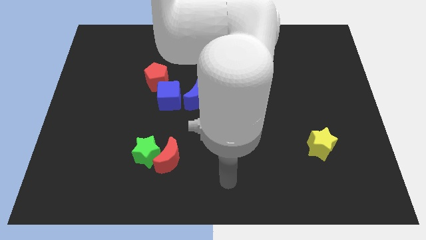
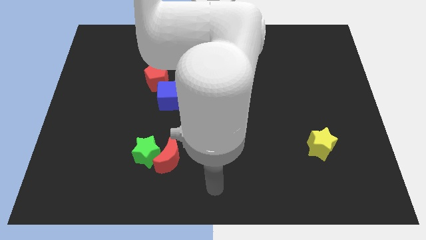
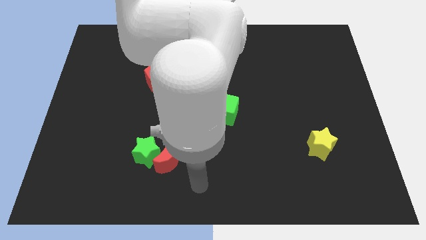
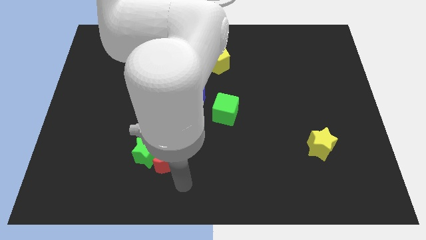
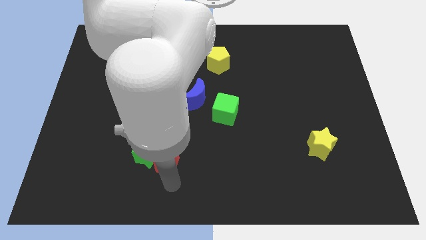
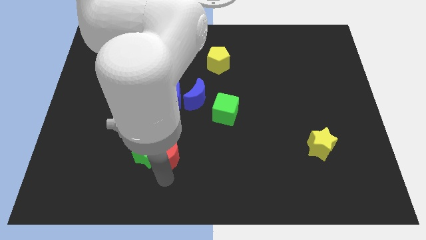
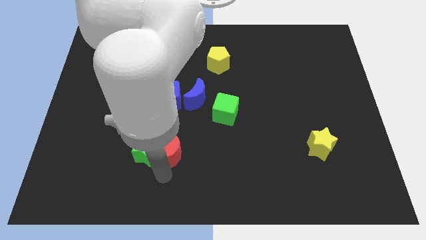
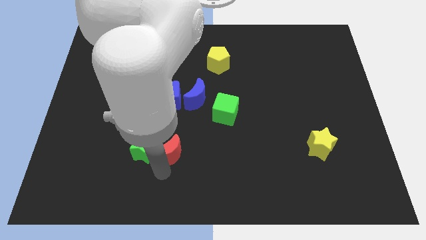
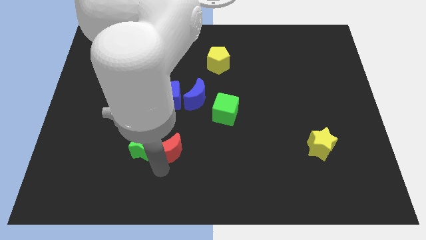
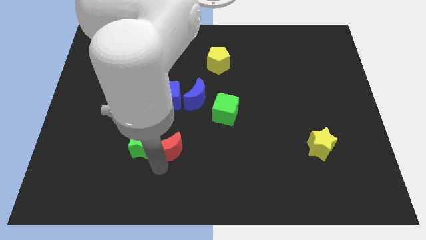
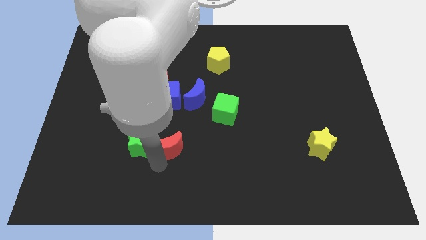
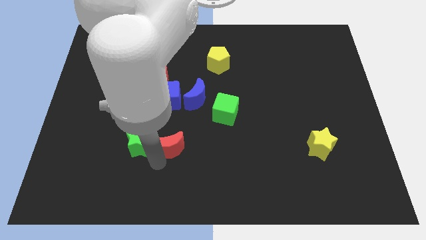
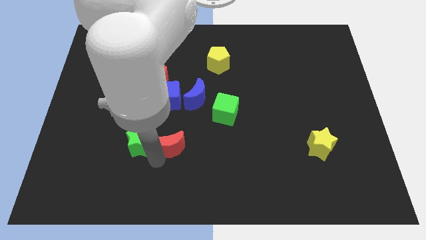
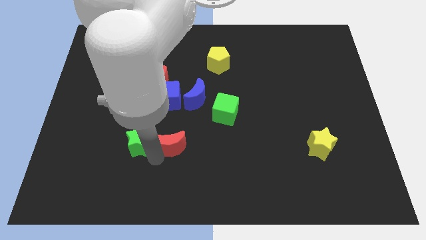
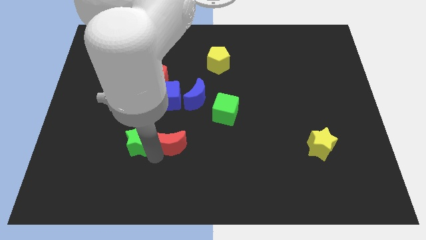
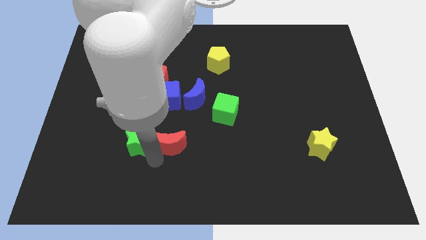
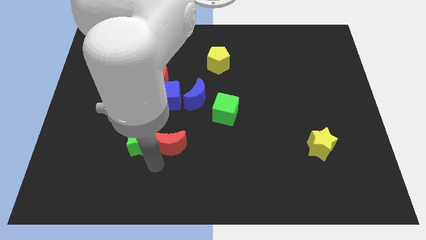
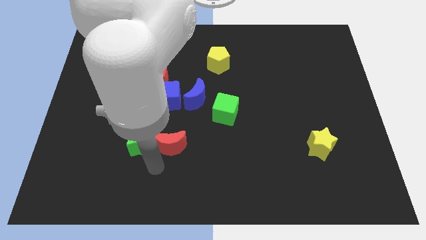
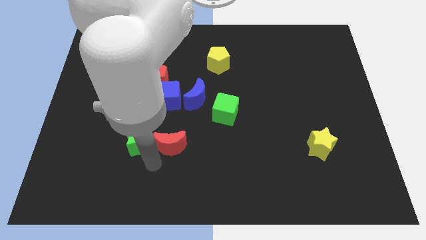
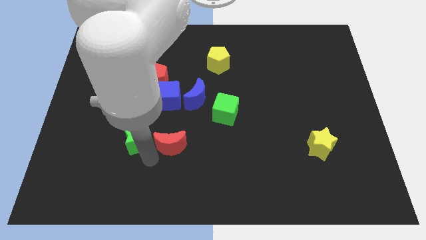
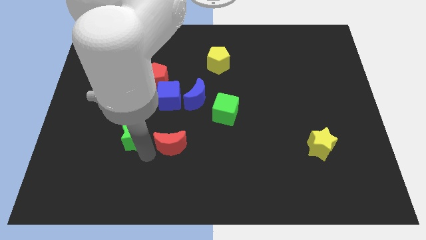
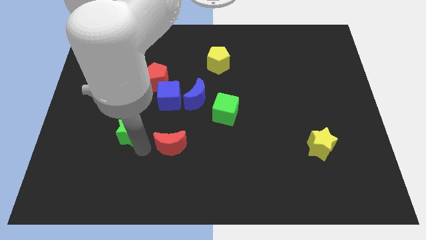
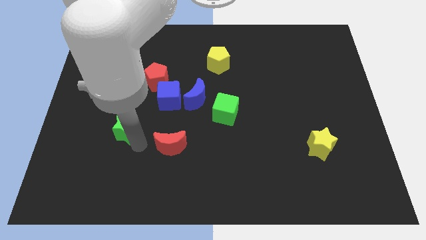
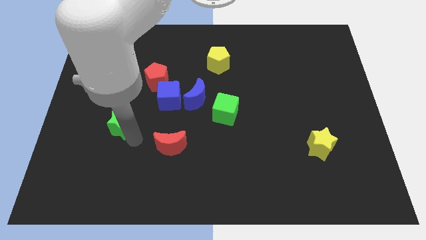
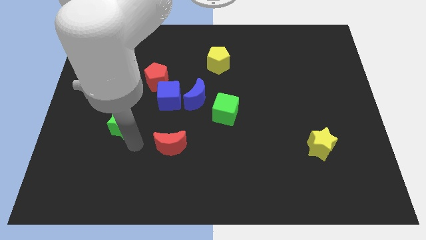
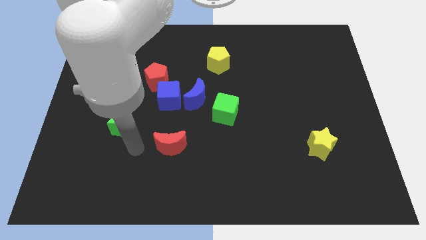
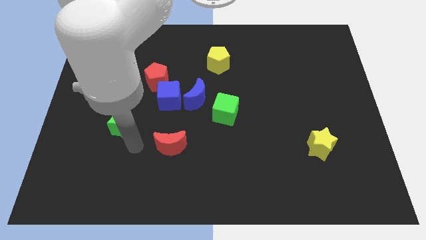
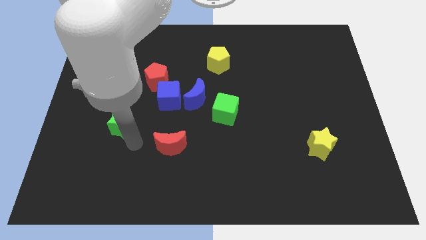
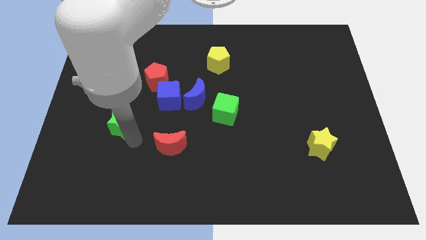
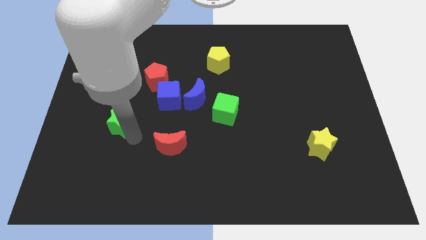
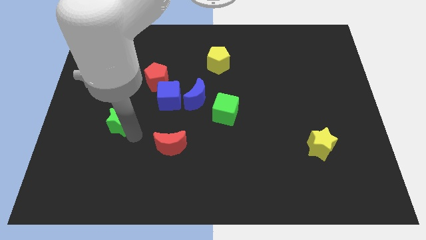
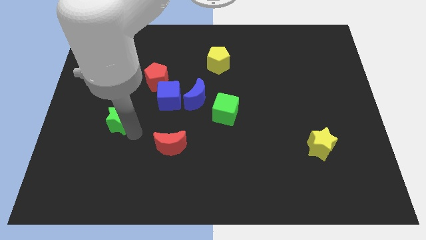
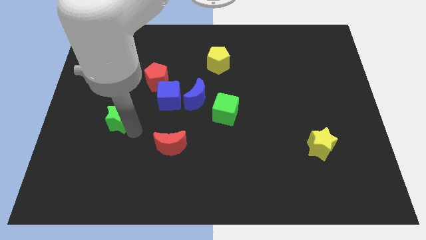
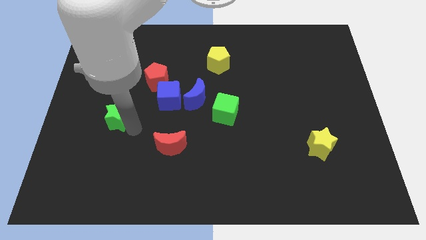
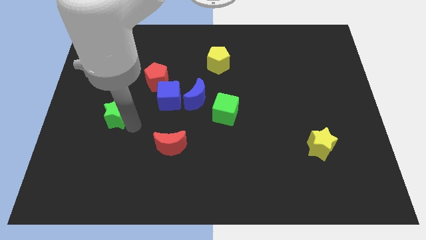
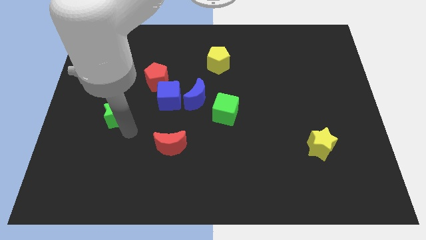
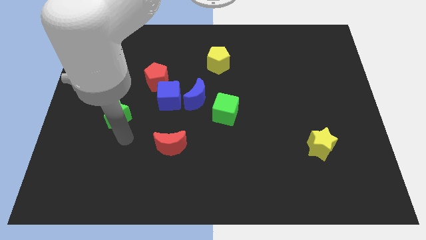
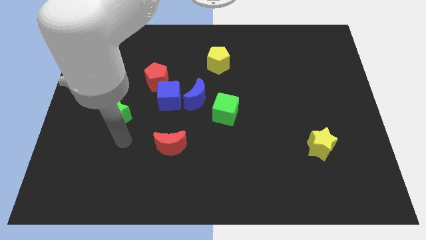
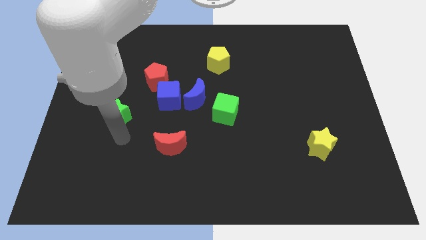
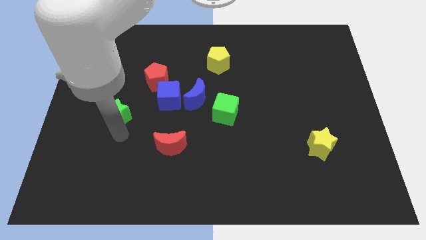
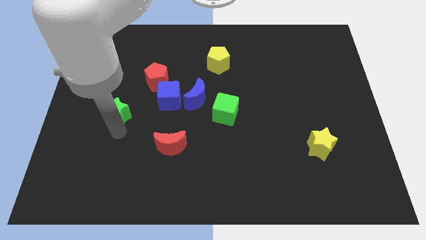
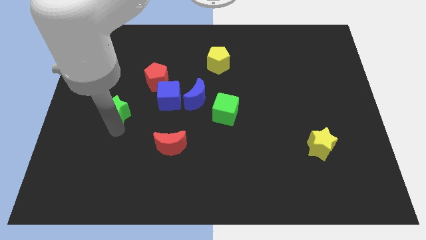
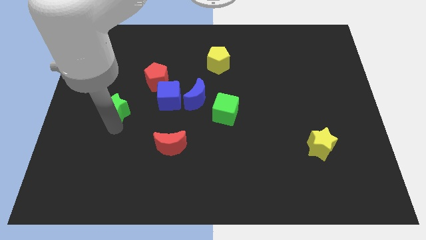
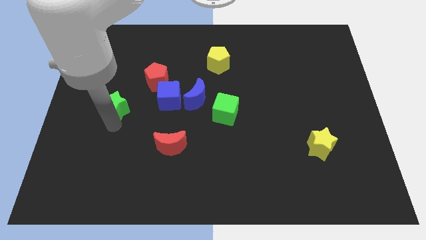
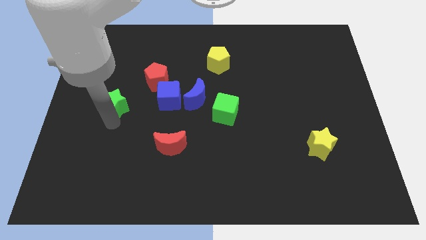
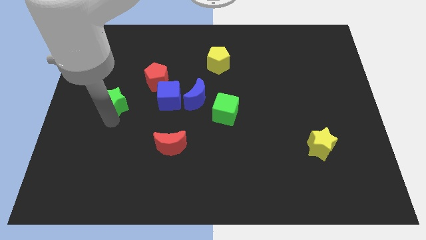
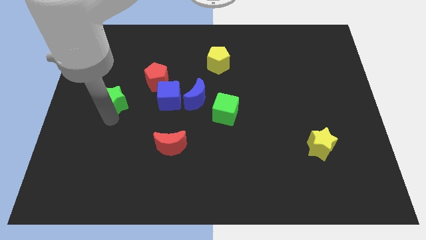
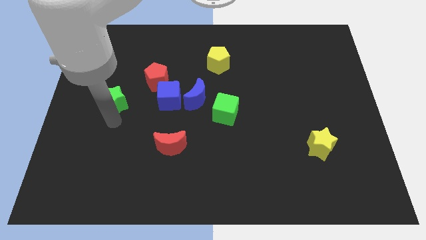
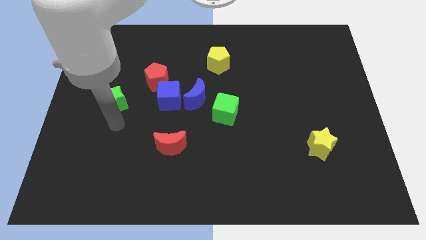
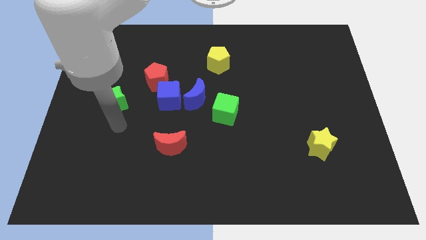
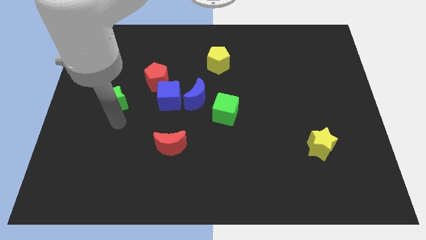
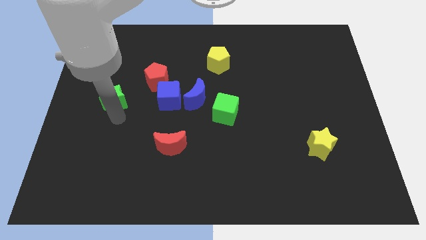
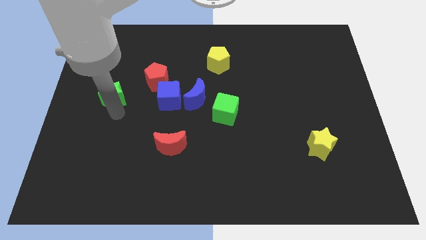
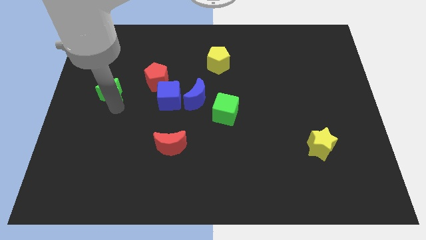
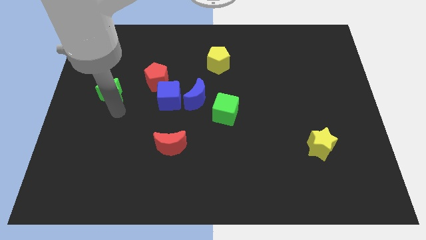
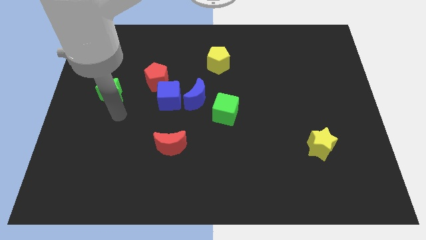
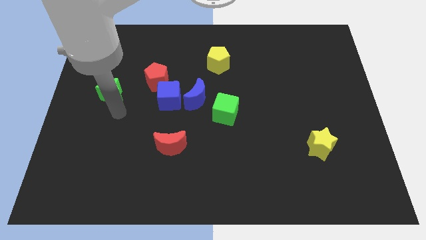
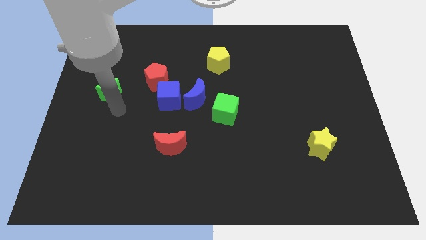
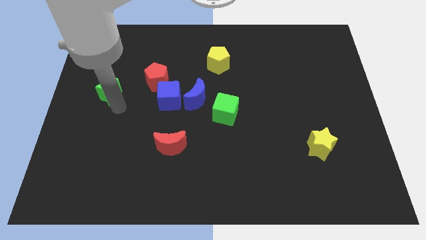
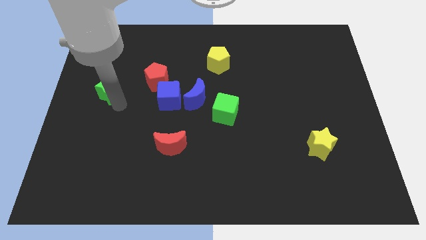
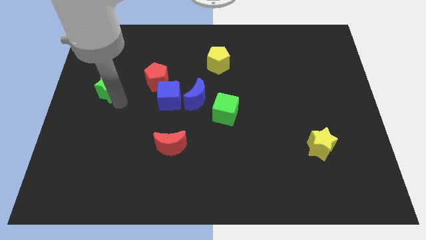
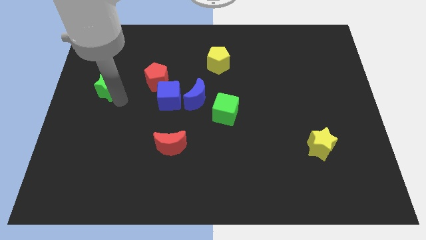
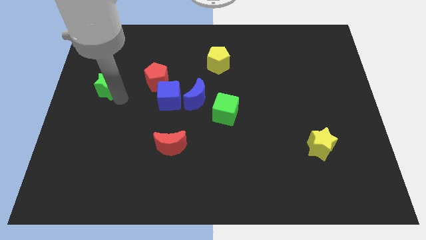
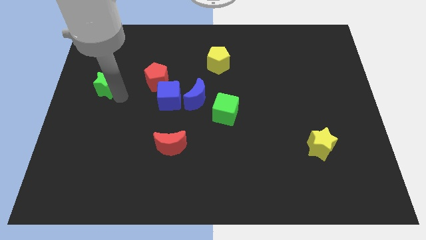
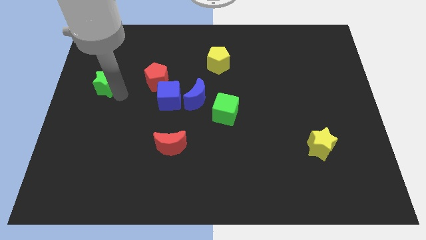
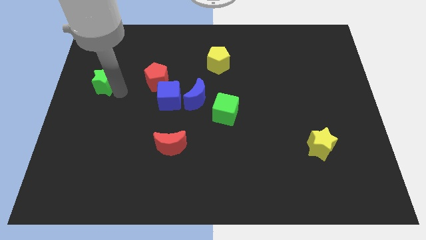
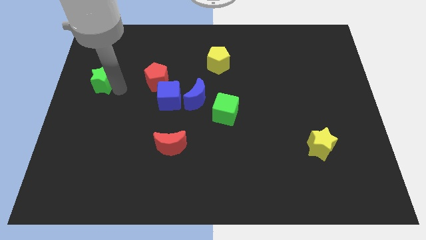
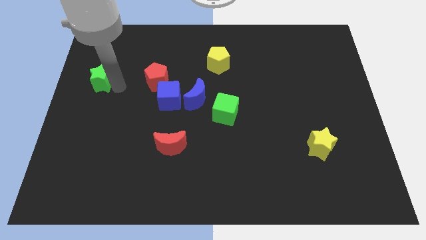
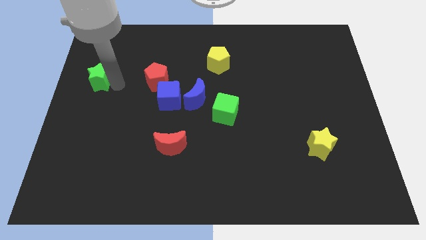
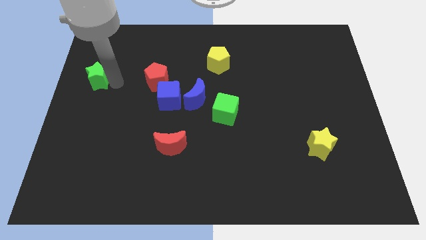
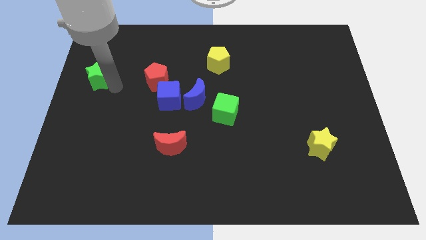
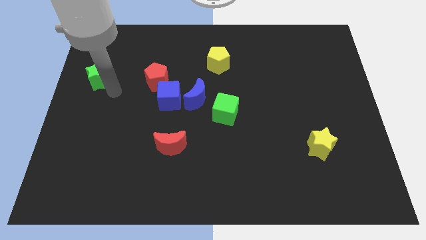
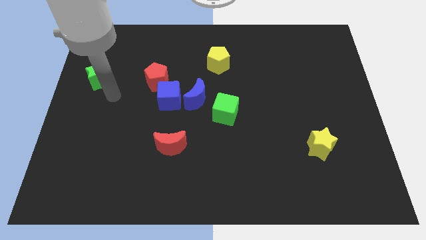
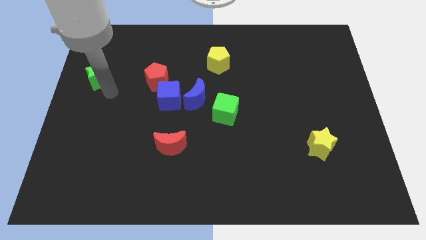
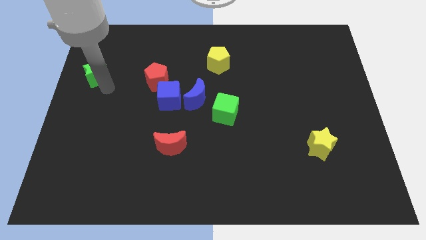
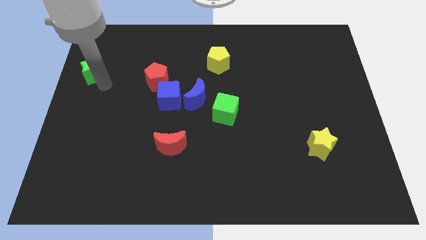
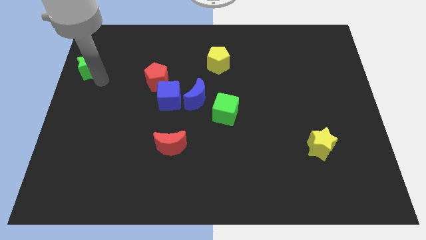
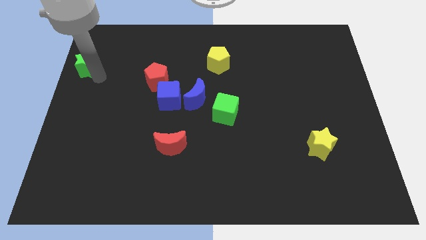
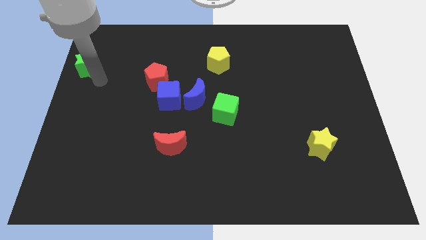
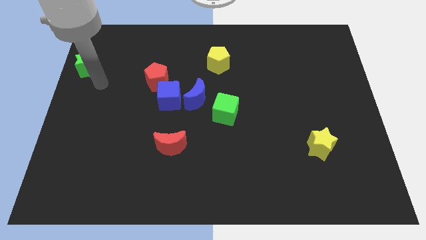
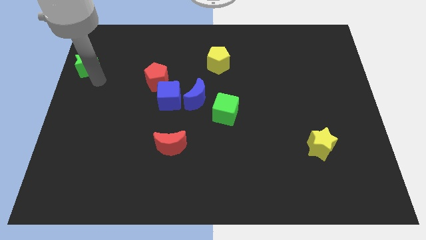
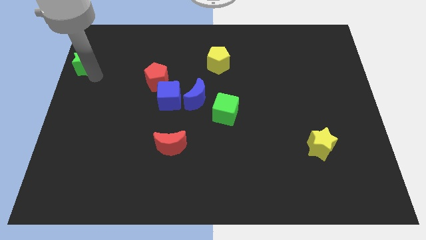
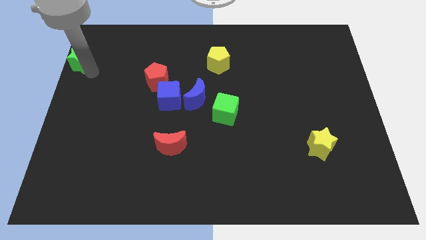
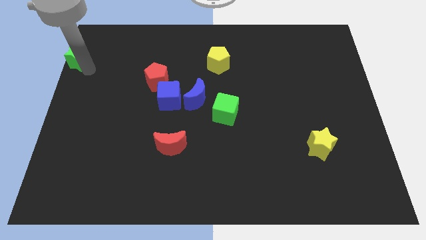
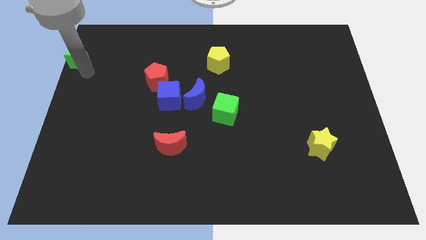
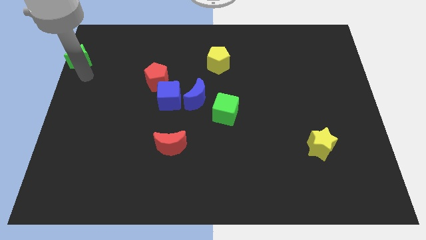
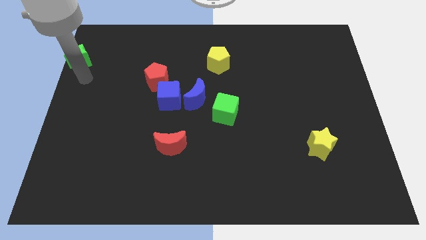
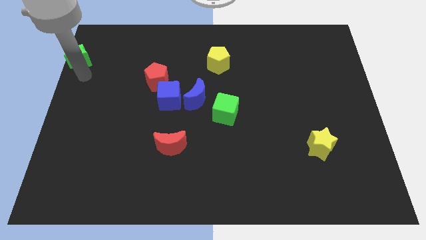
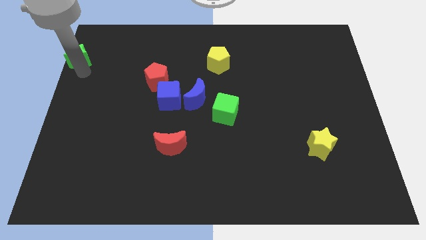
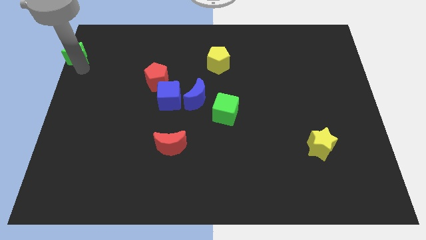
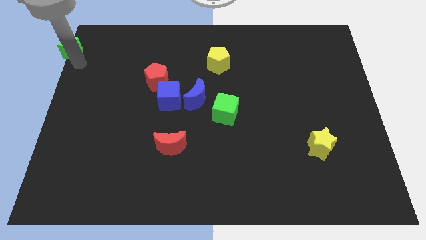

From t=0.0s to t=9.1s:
slide the green star to the top left of the board
